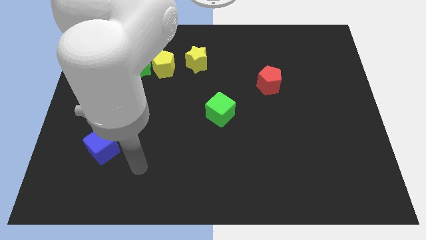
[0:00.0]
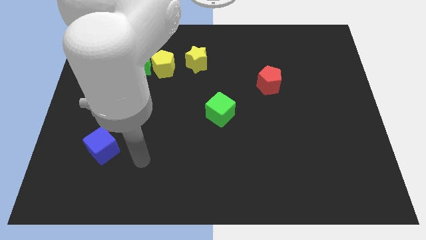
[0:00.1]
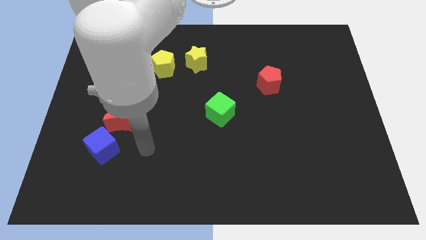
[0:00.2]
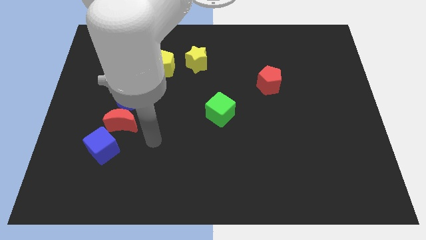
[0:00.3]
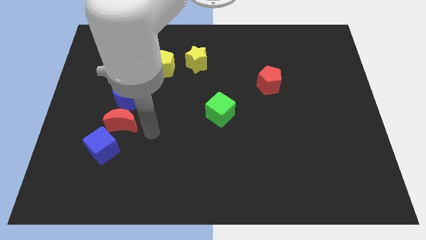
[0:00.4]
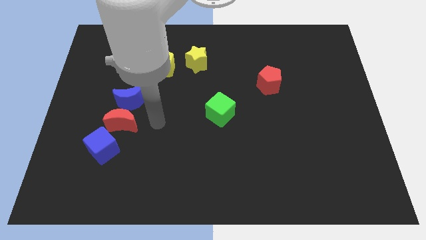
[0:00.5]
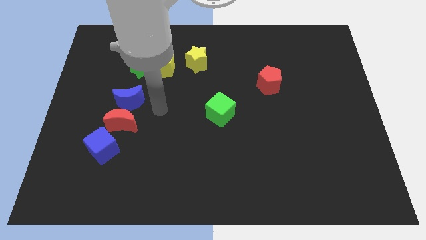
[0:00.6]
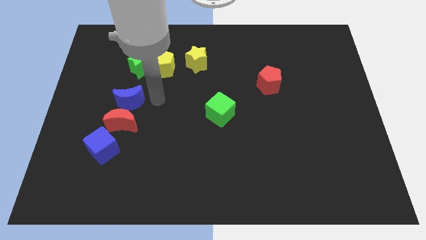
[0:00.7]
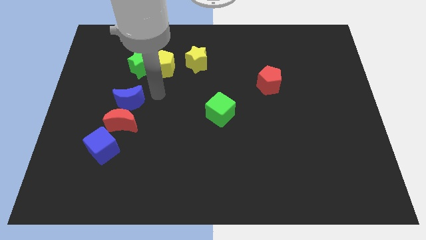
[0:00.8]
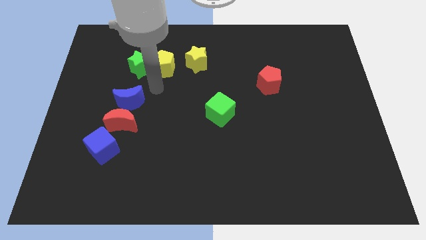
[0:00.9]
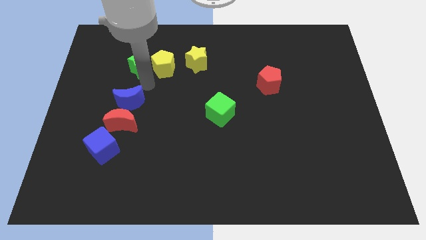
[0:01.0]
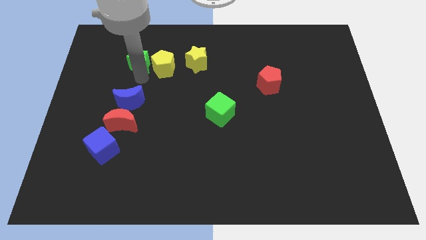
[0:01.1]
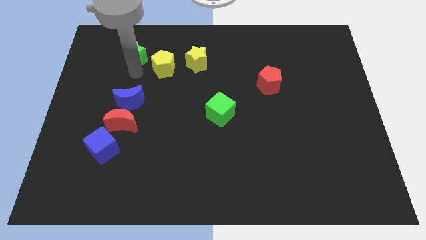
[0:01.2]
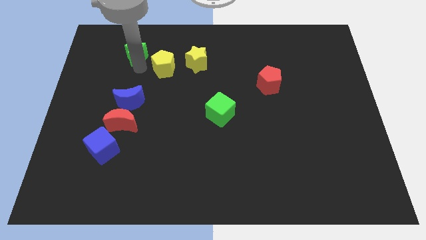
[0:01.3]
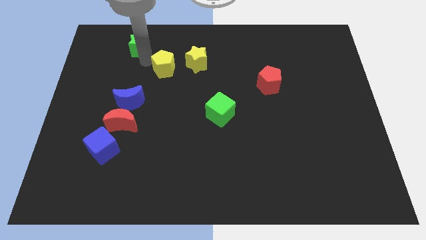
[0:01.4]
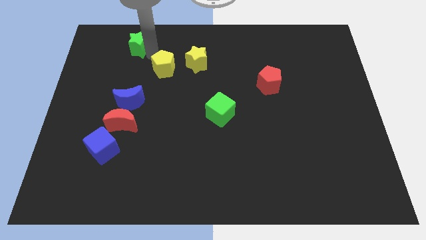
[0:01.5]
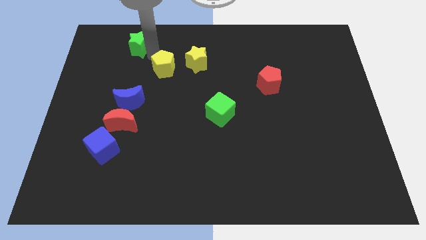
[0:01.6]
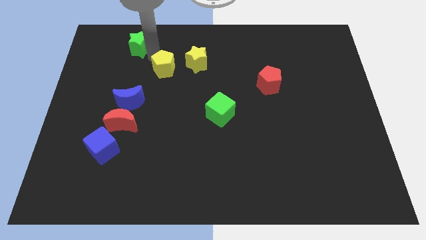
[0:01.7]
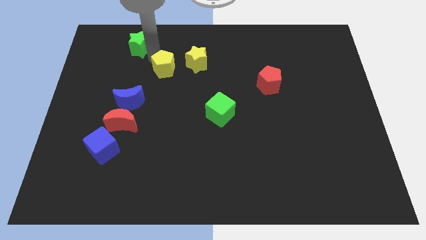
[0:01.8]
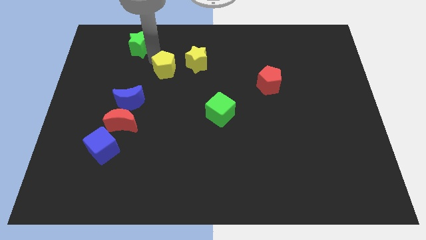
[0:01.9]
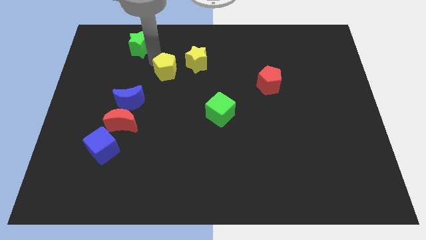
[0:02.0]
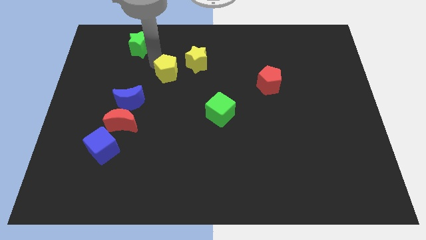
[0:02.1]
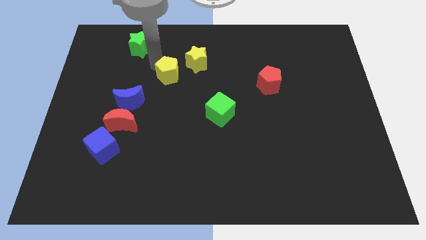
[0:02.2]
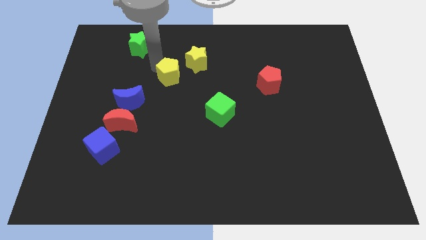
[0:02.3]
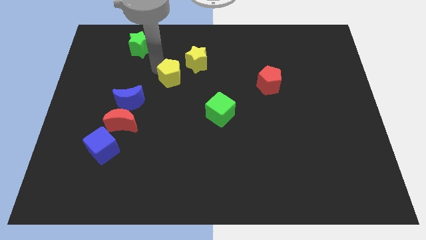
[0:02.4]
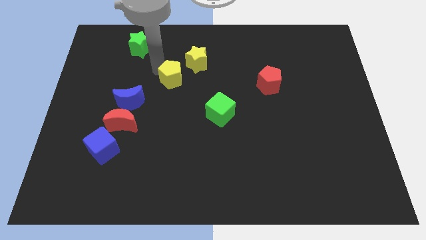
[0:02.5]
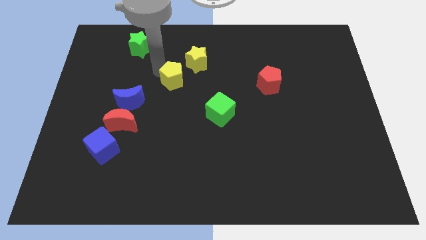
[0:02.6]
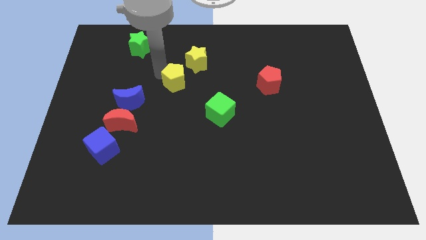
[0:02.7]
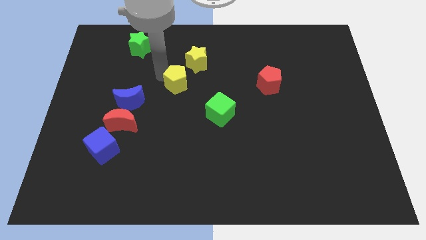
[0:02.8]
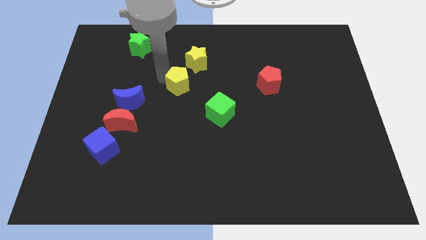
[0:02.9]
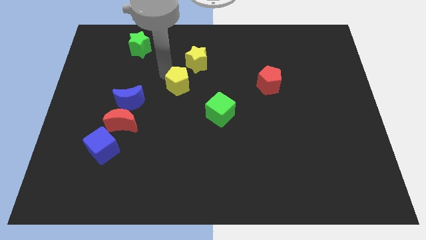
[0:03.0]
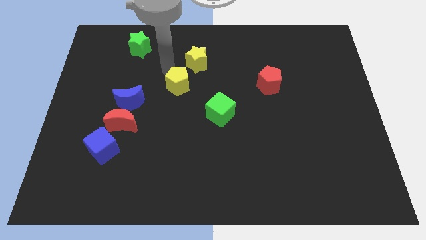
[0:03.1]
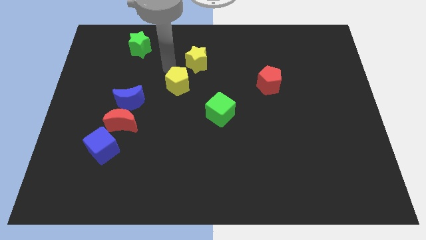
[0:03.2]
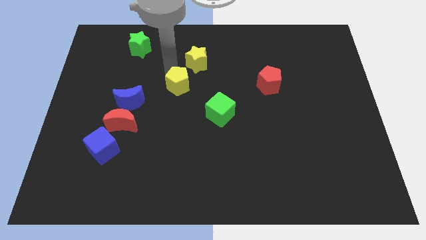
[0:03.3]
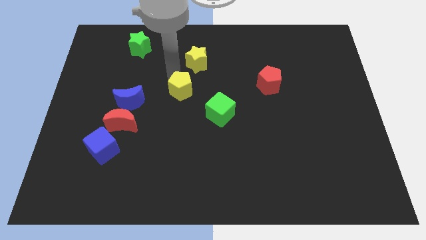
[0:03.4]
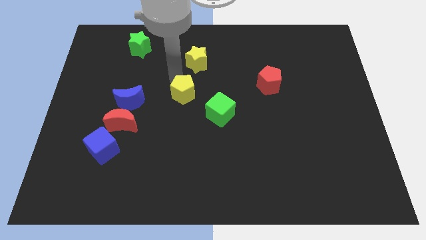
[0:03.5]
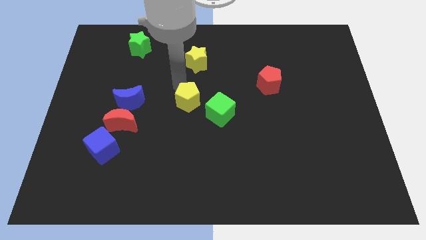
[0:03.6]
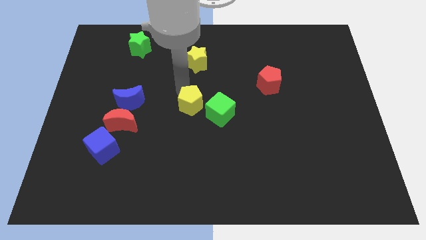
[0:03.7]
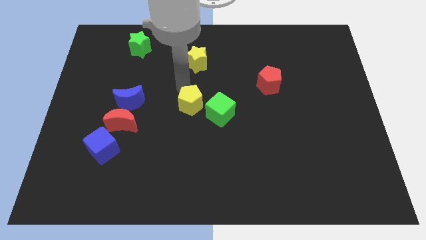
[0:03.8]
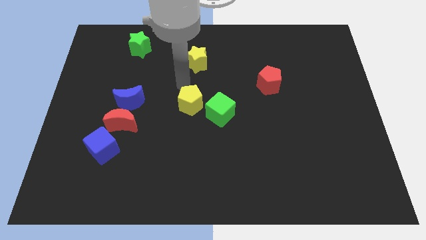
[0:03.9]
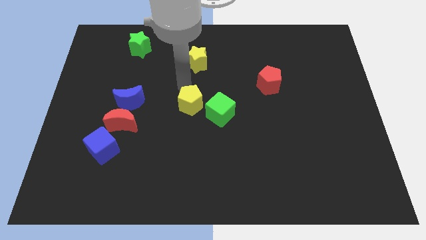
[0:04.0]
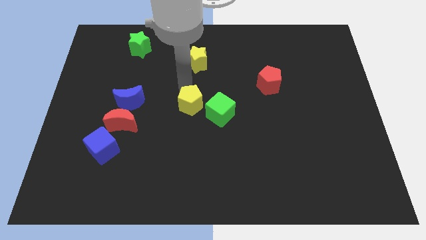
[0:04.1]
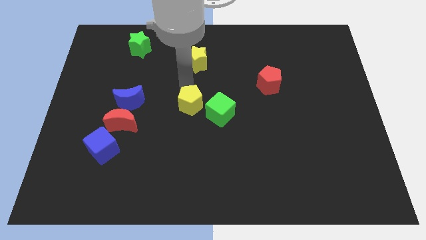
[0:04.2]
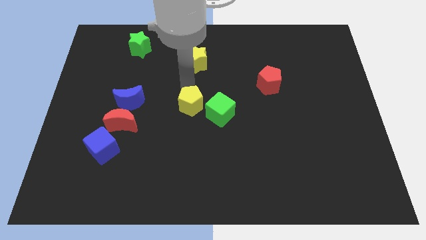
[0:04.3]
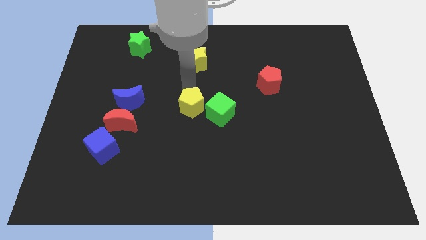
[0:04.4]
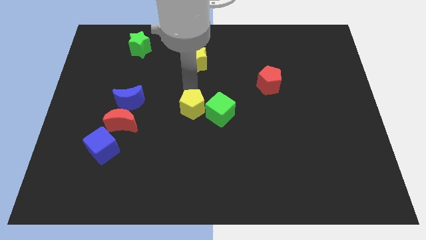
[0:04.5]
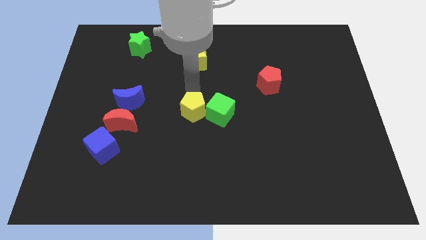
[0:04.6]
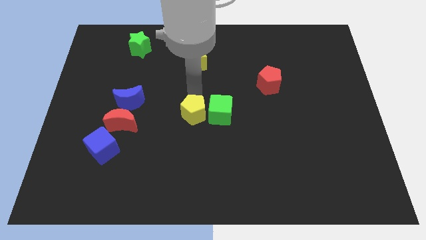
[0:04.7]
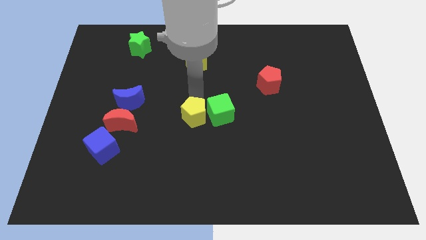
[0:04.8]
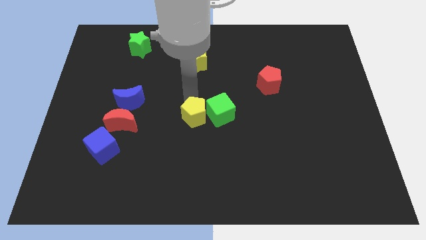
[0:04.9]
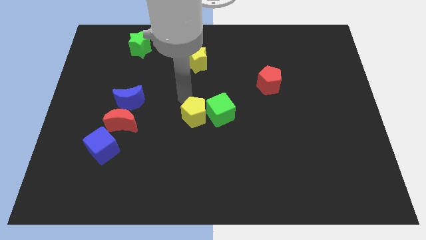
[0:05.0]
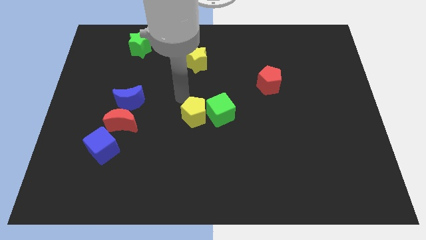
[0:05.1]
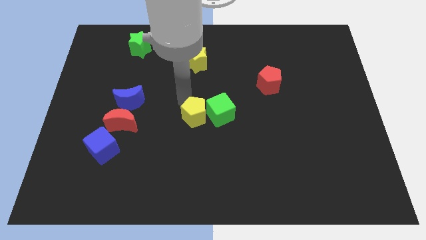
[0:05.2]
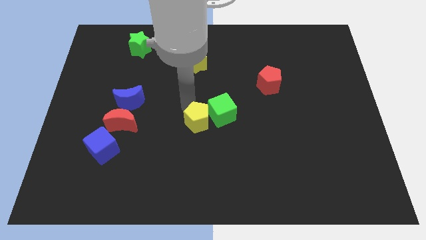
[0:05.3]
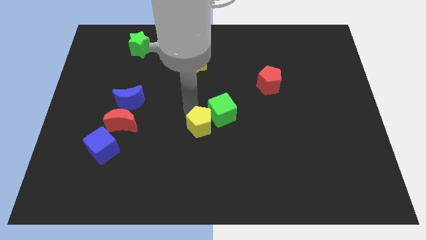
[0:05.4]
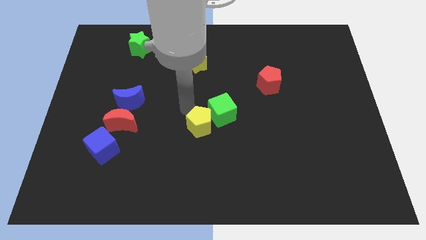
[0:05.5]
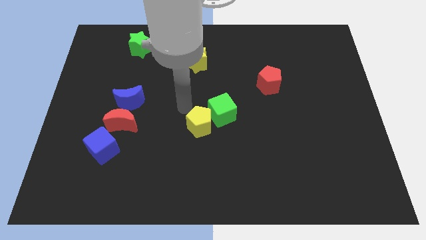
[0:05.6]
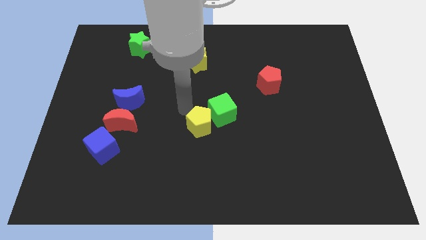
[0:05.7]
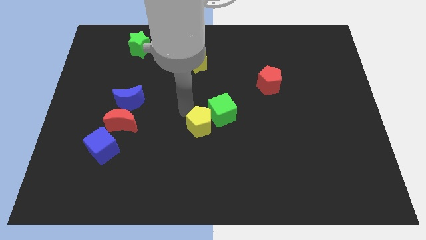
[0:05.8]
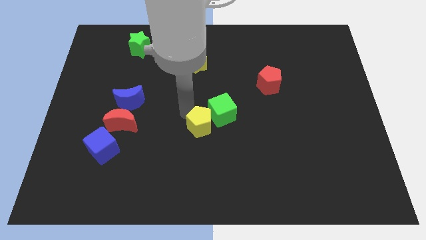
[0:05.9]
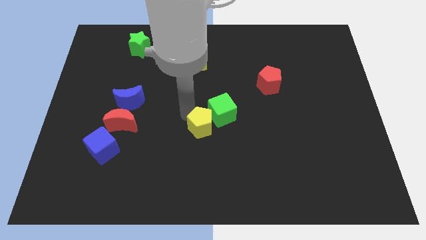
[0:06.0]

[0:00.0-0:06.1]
push the yellow pentagon to the bottom of the green cube

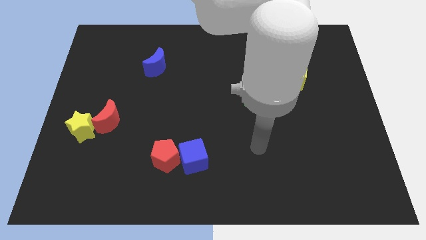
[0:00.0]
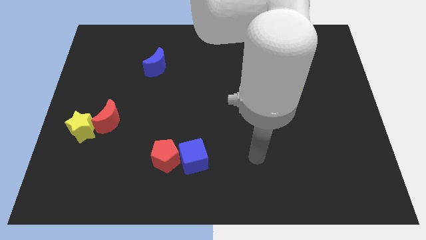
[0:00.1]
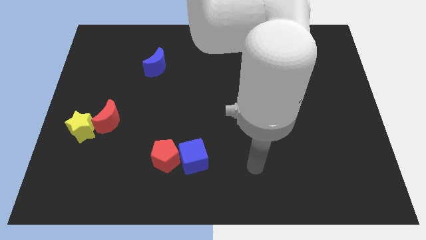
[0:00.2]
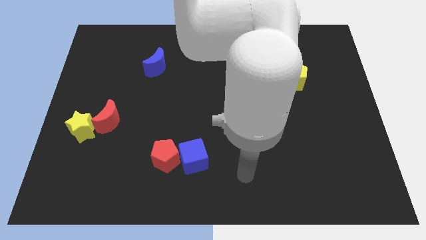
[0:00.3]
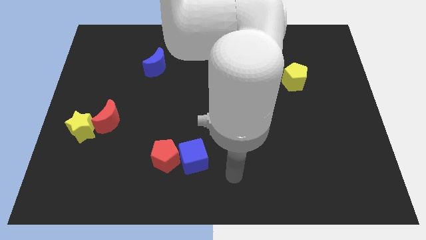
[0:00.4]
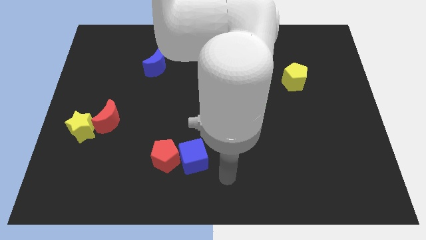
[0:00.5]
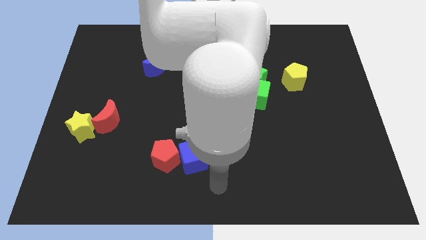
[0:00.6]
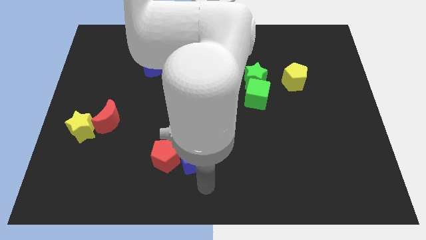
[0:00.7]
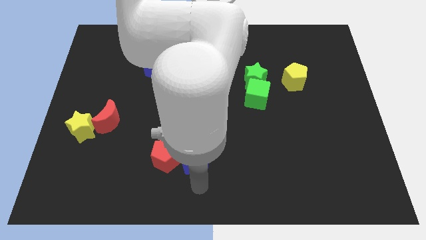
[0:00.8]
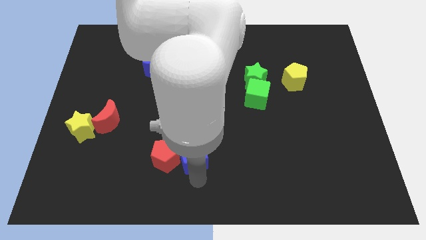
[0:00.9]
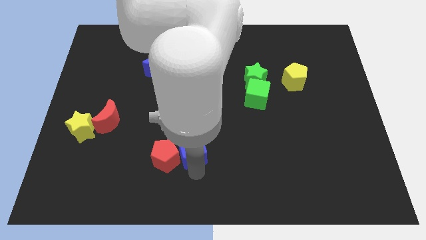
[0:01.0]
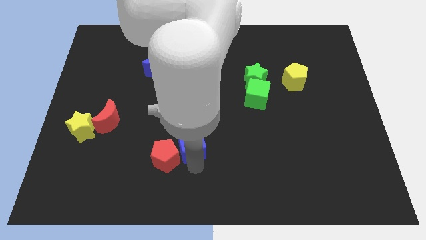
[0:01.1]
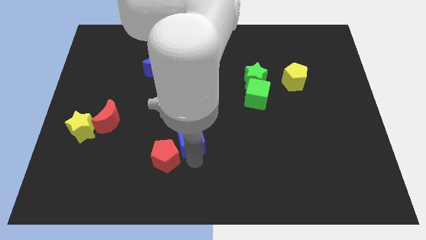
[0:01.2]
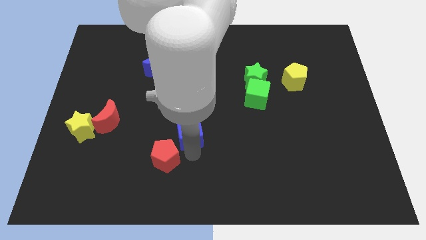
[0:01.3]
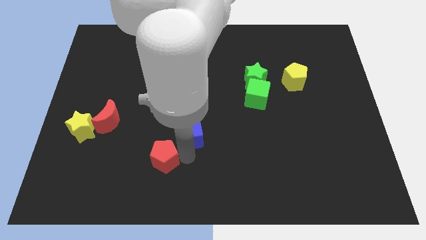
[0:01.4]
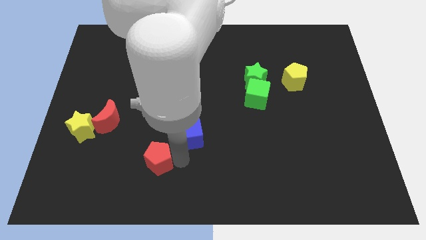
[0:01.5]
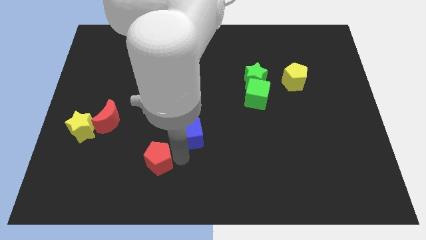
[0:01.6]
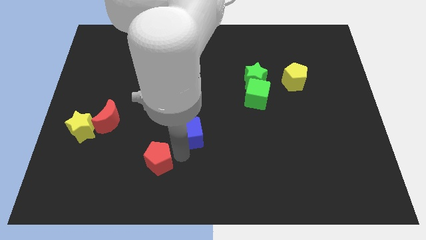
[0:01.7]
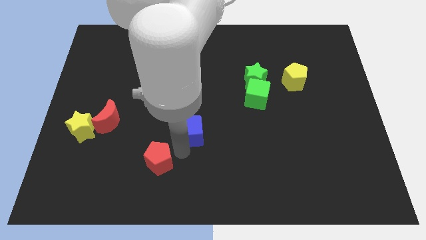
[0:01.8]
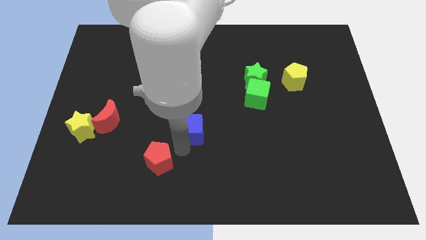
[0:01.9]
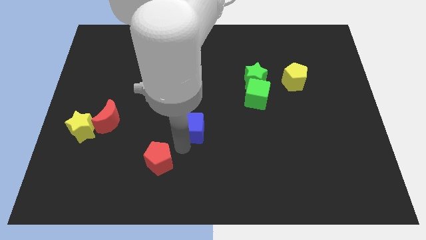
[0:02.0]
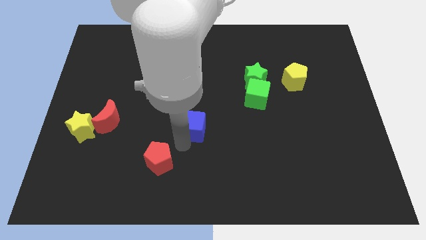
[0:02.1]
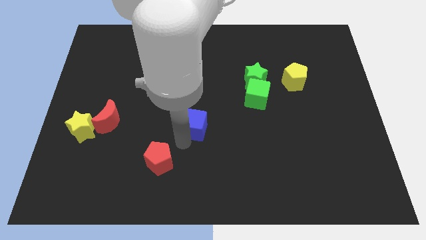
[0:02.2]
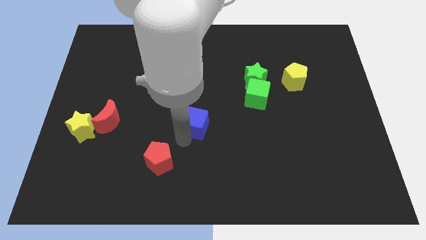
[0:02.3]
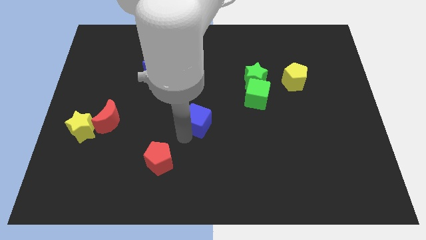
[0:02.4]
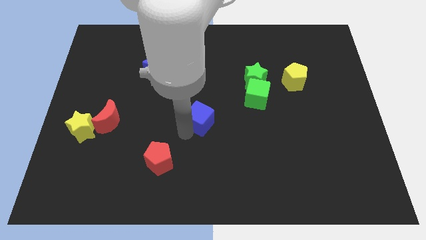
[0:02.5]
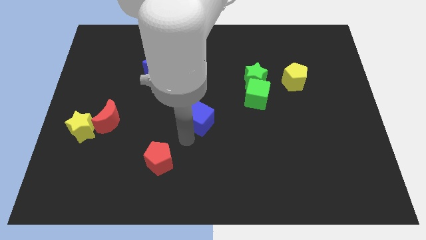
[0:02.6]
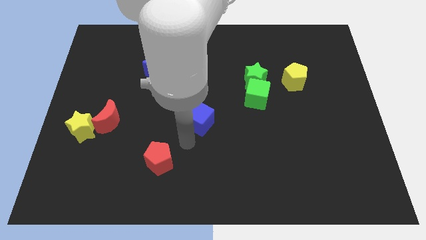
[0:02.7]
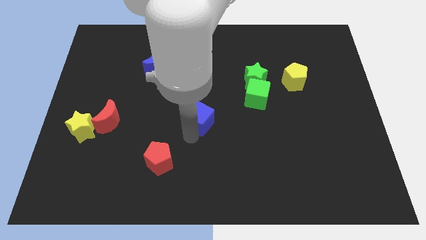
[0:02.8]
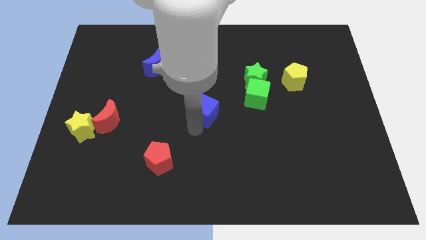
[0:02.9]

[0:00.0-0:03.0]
push the blue cube just left of the green cube
